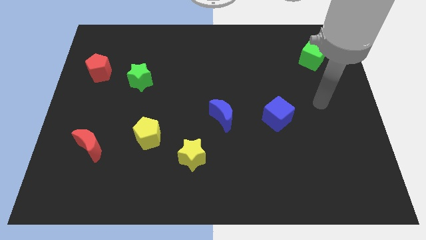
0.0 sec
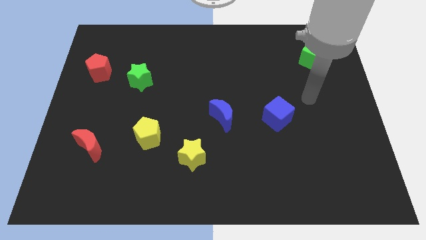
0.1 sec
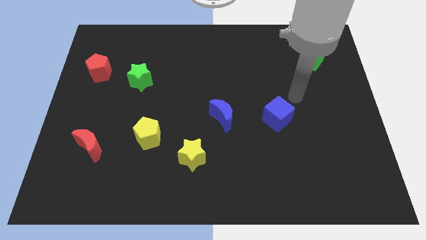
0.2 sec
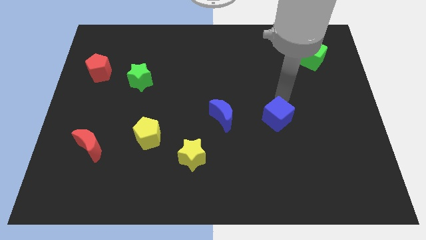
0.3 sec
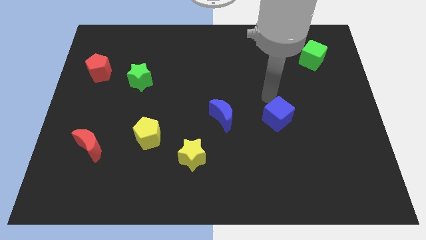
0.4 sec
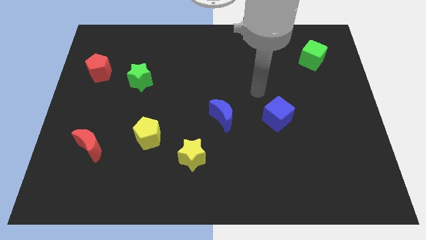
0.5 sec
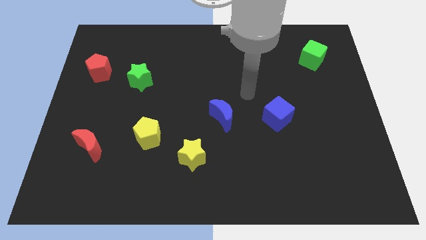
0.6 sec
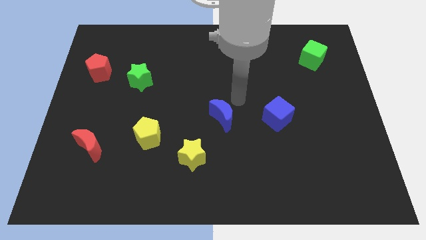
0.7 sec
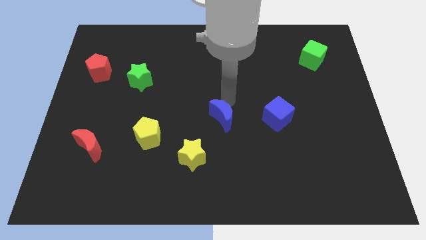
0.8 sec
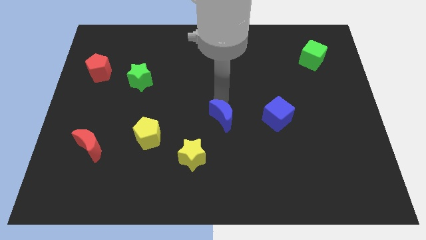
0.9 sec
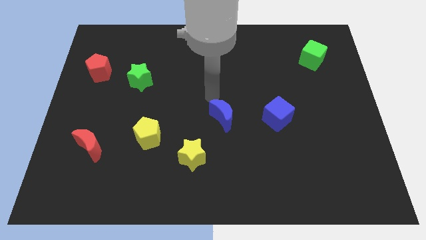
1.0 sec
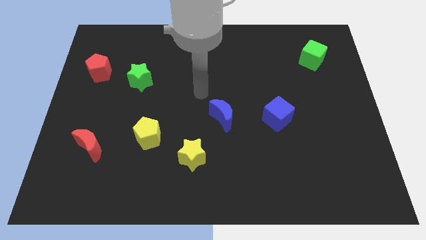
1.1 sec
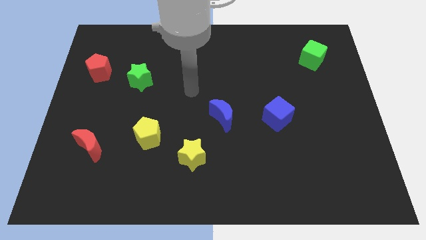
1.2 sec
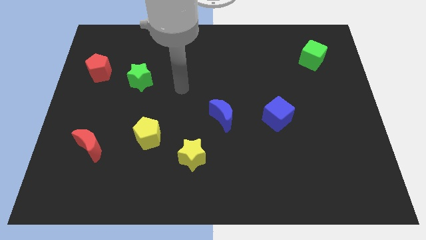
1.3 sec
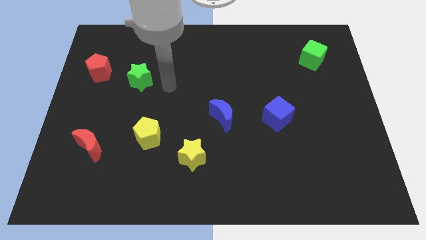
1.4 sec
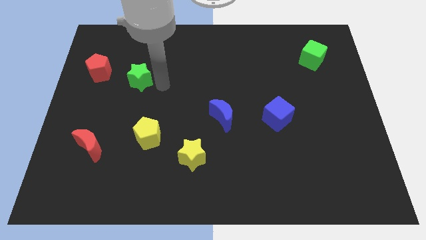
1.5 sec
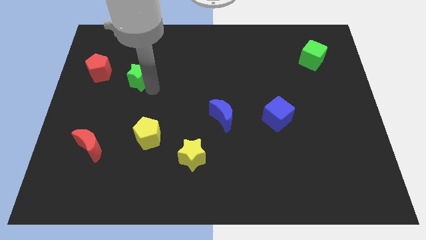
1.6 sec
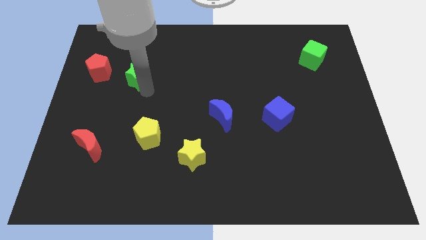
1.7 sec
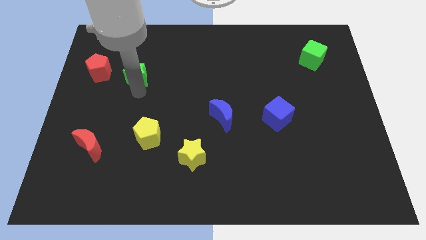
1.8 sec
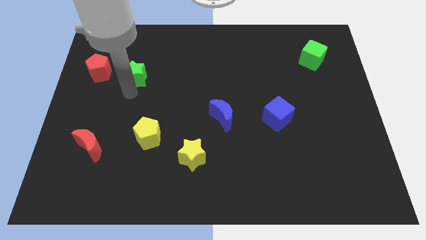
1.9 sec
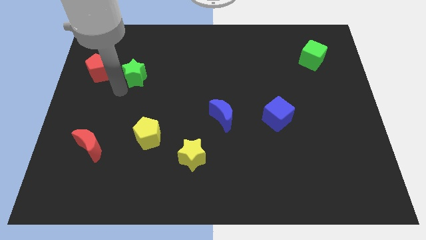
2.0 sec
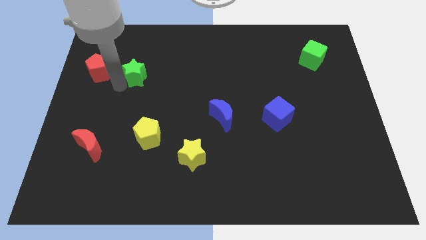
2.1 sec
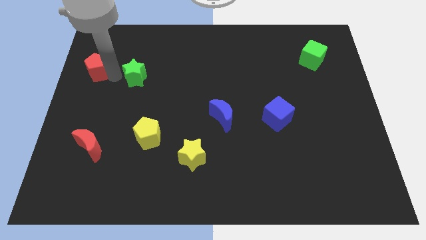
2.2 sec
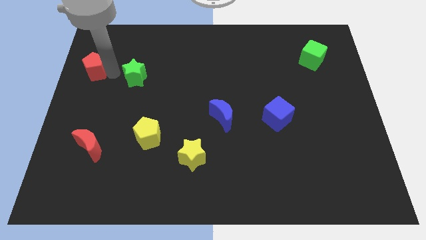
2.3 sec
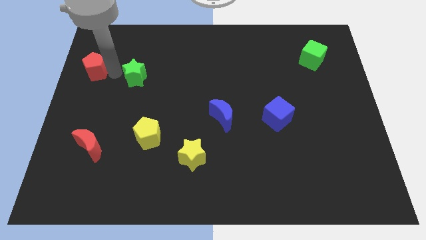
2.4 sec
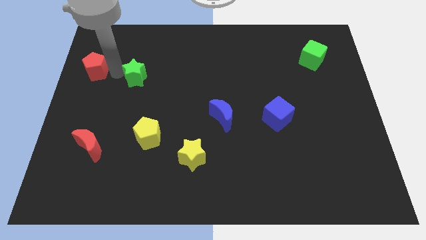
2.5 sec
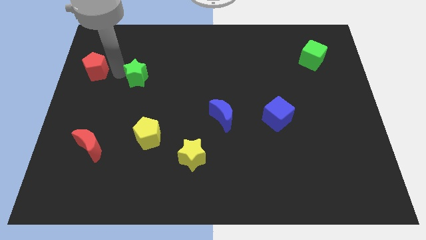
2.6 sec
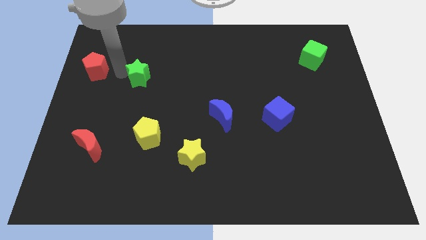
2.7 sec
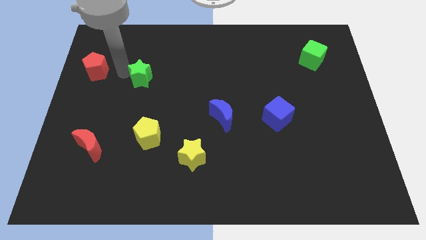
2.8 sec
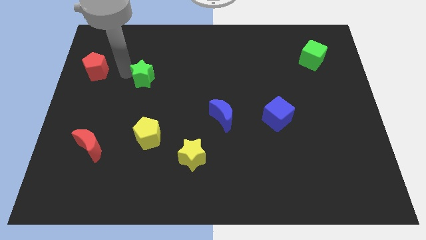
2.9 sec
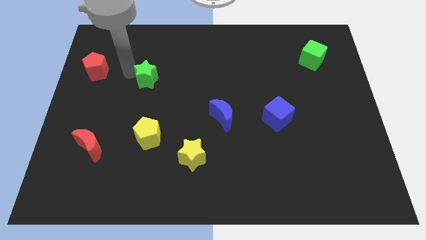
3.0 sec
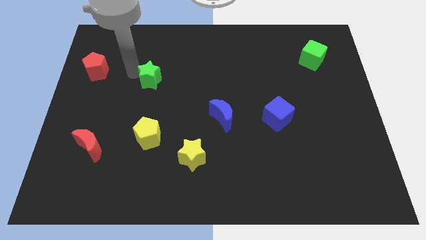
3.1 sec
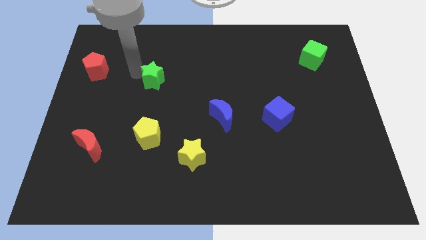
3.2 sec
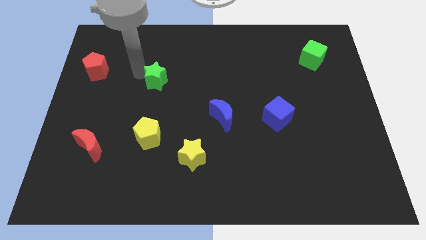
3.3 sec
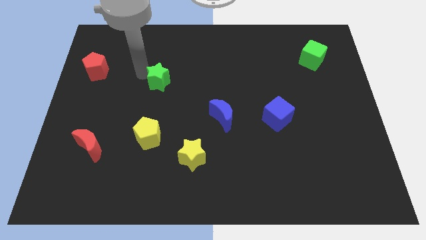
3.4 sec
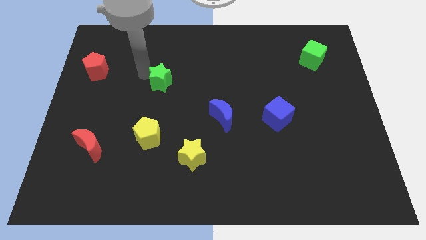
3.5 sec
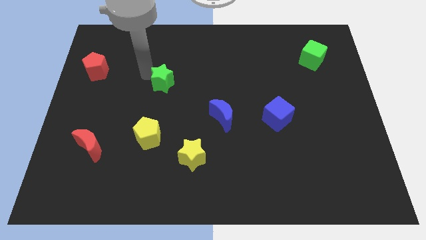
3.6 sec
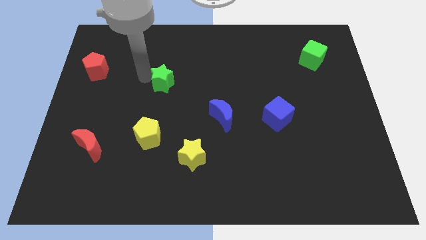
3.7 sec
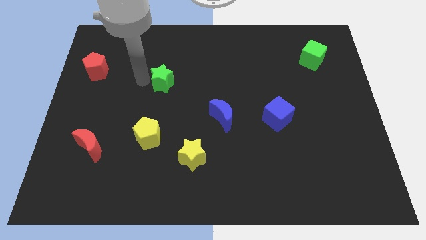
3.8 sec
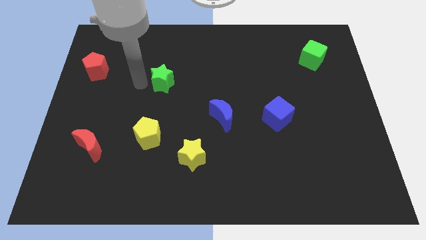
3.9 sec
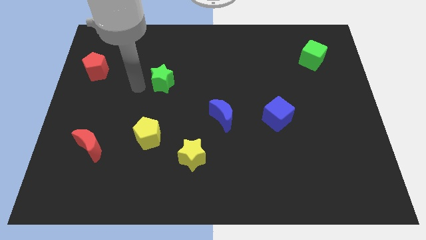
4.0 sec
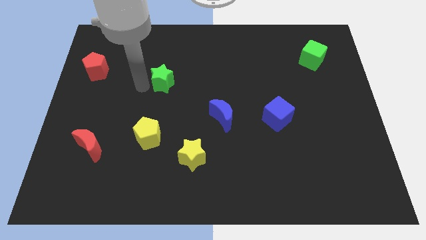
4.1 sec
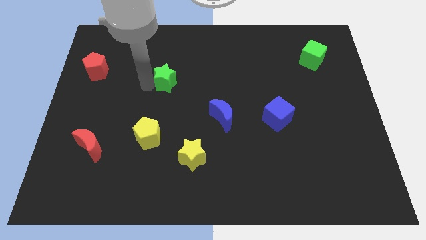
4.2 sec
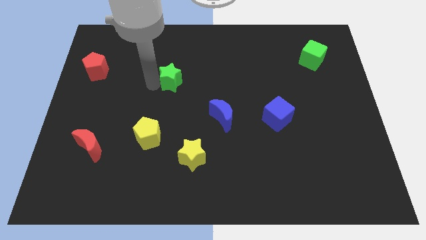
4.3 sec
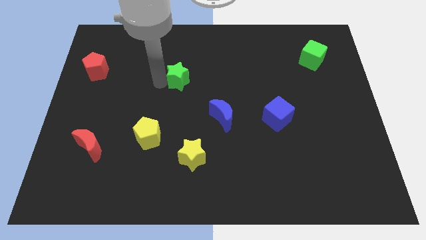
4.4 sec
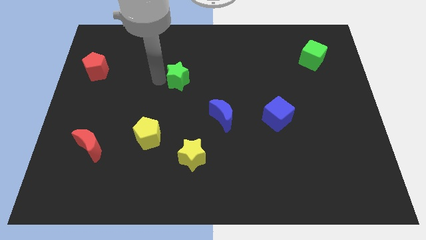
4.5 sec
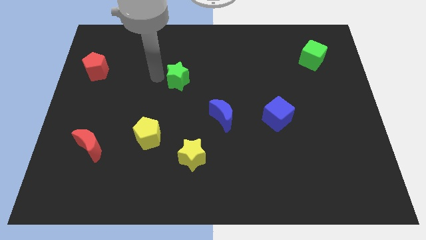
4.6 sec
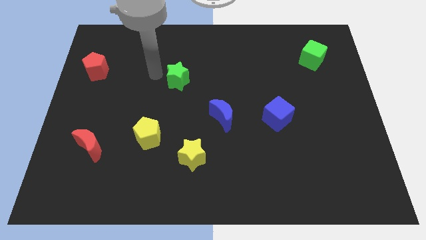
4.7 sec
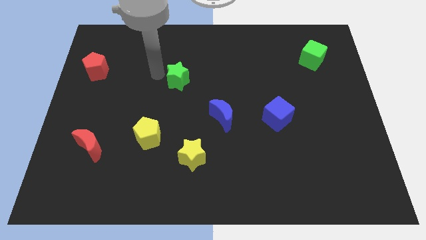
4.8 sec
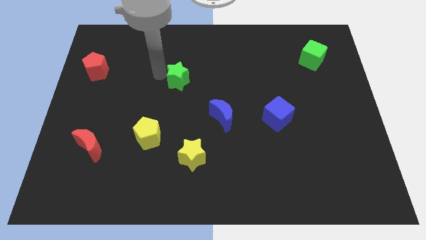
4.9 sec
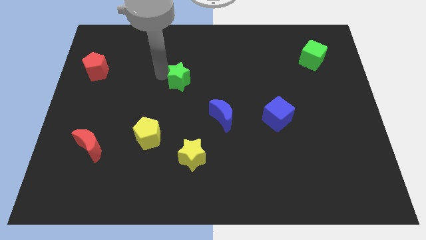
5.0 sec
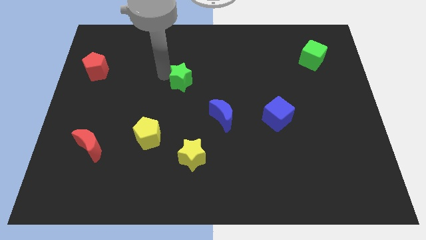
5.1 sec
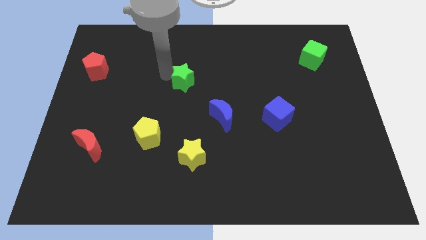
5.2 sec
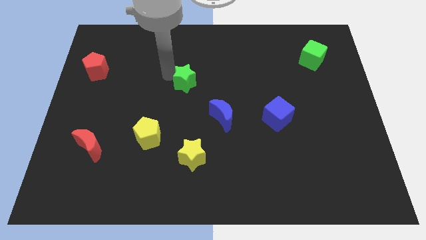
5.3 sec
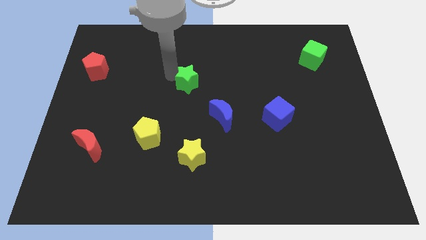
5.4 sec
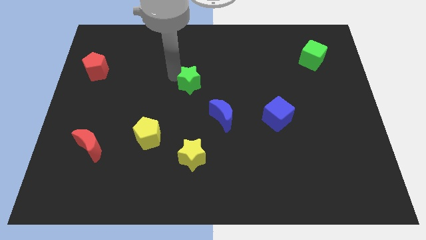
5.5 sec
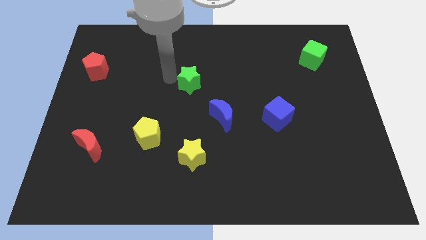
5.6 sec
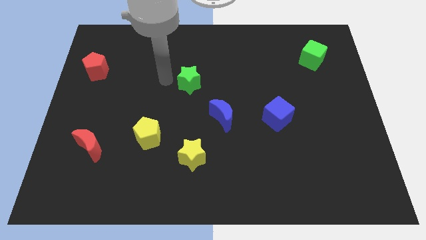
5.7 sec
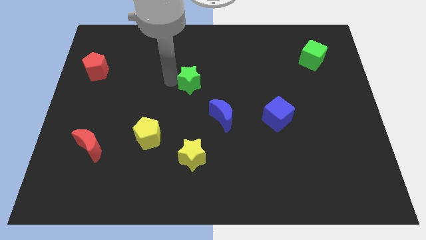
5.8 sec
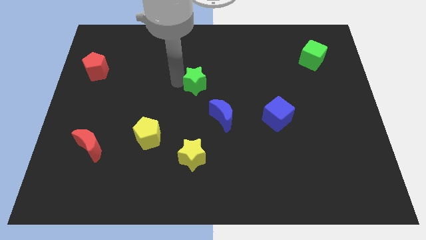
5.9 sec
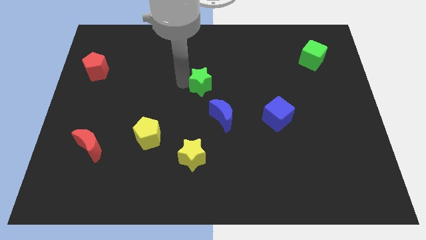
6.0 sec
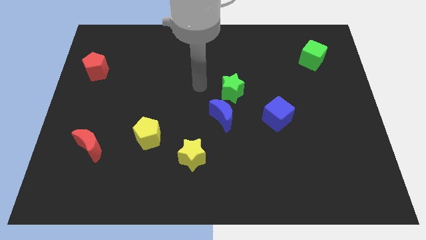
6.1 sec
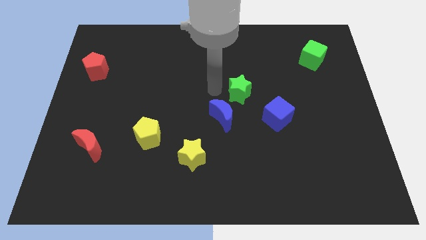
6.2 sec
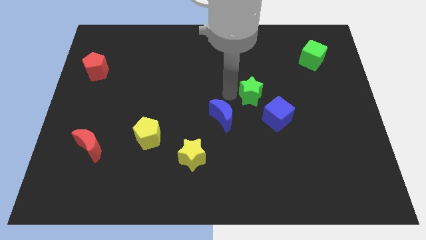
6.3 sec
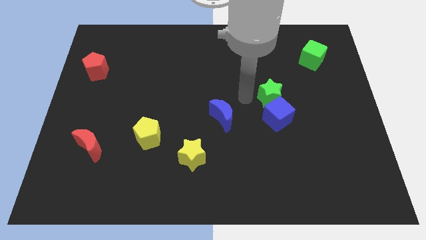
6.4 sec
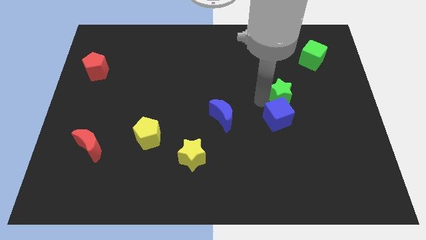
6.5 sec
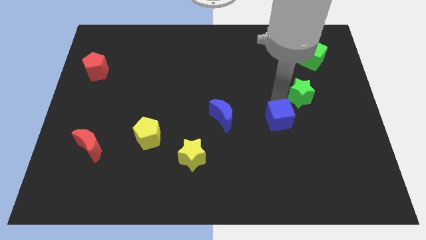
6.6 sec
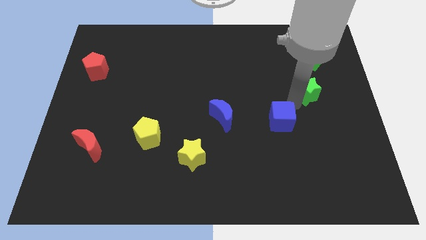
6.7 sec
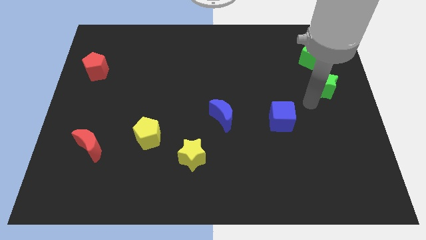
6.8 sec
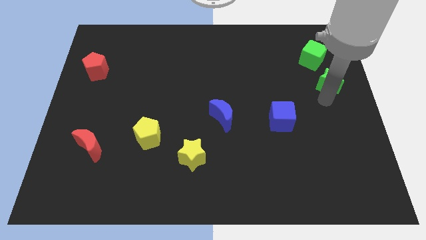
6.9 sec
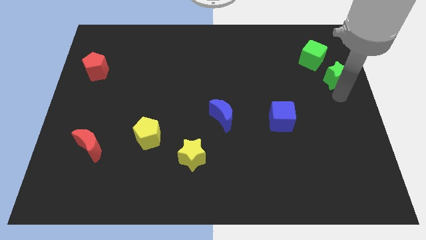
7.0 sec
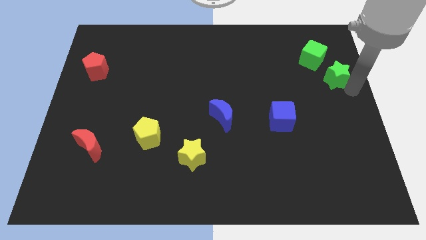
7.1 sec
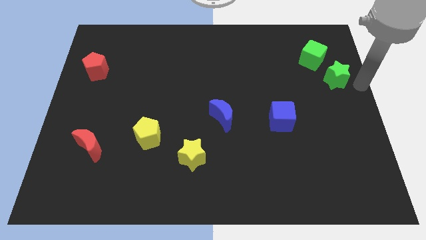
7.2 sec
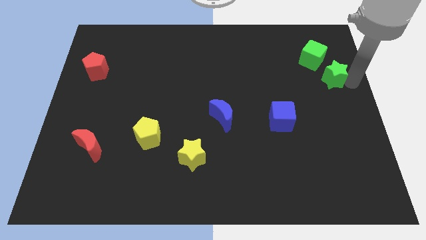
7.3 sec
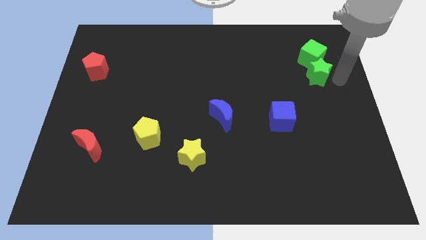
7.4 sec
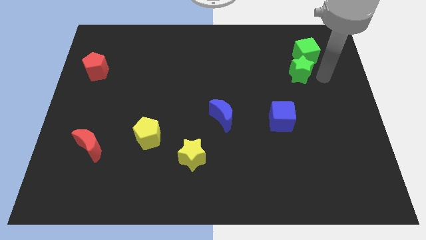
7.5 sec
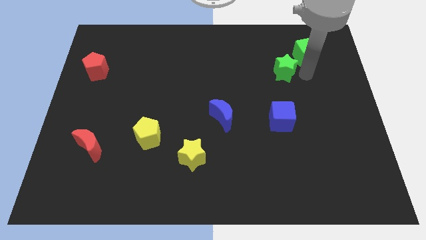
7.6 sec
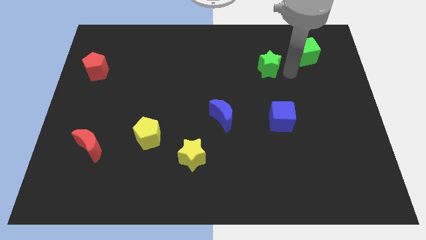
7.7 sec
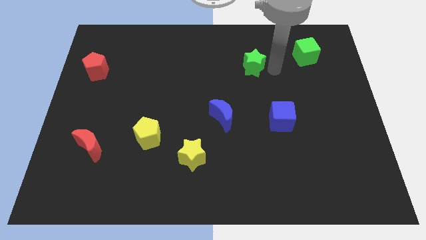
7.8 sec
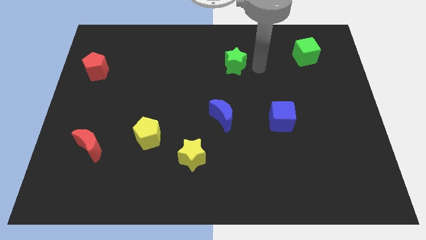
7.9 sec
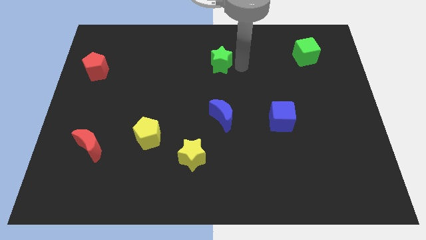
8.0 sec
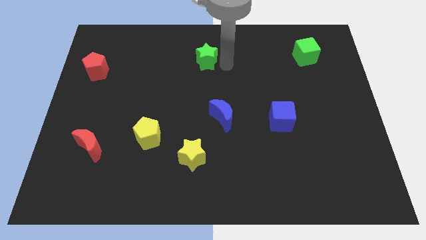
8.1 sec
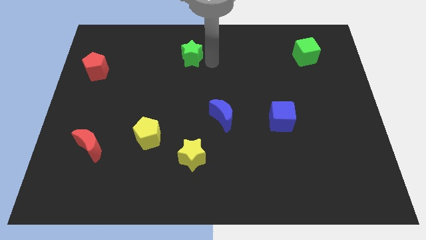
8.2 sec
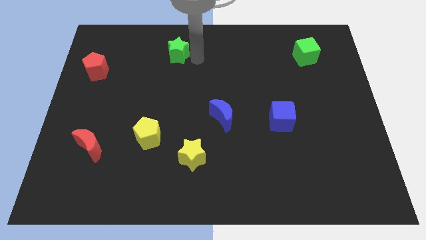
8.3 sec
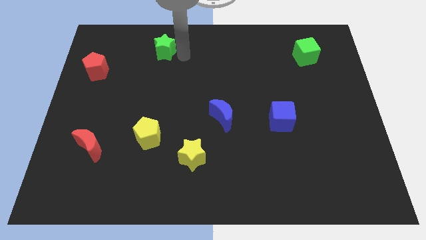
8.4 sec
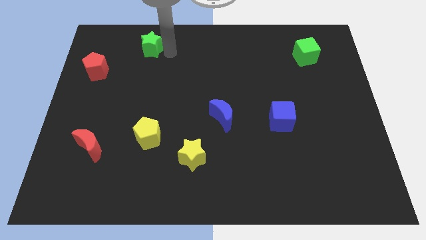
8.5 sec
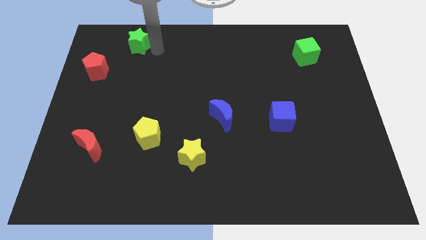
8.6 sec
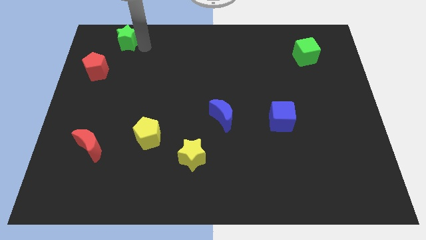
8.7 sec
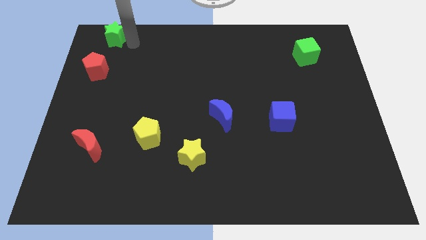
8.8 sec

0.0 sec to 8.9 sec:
push the green star to the top left
